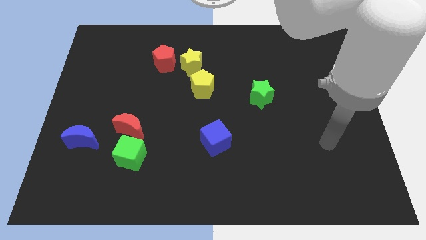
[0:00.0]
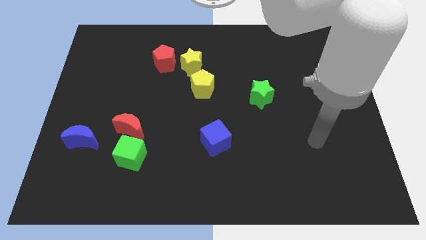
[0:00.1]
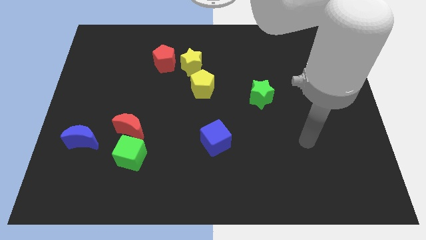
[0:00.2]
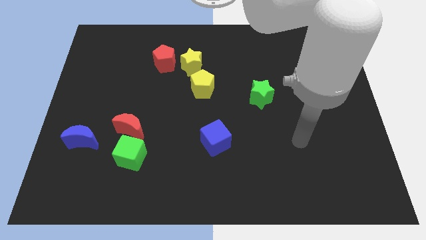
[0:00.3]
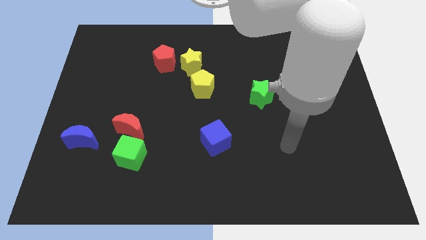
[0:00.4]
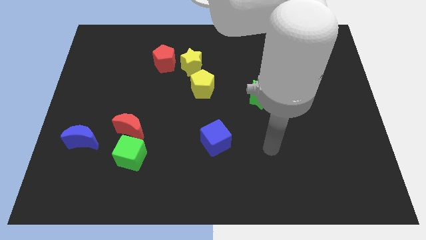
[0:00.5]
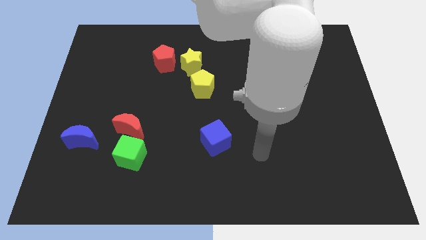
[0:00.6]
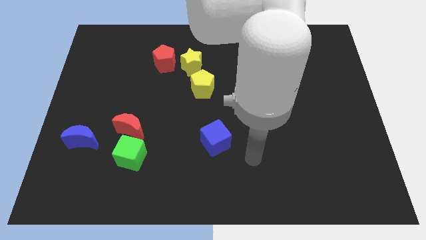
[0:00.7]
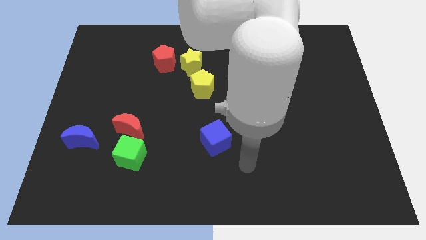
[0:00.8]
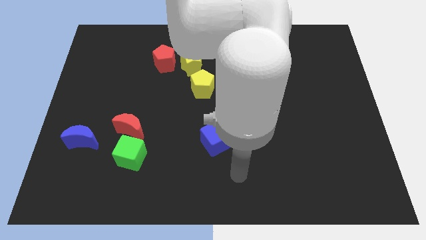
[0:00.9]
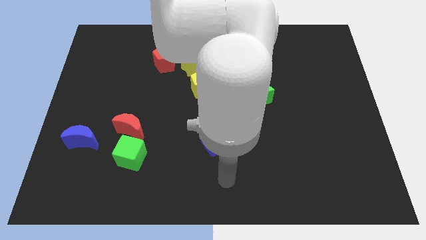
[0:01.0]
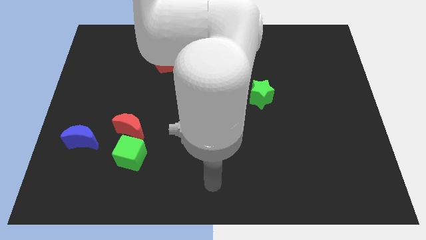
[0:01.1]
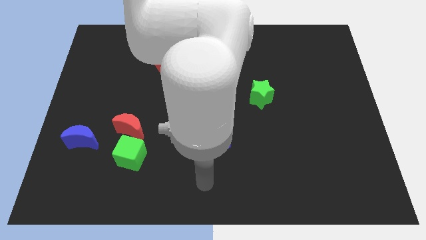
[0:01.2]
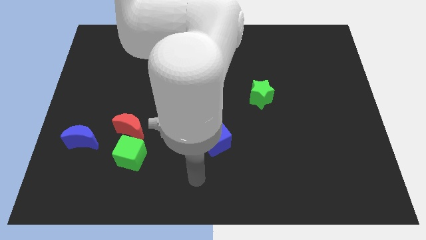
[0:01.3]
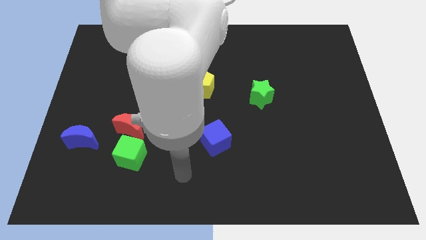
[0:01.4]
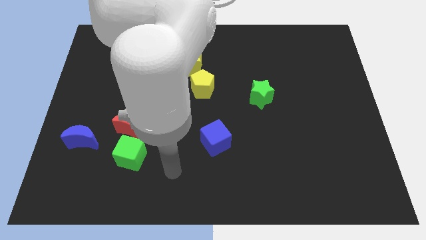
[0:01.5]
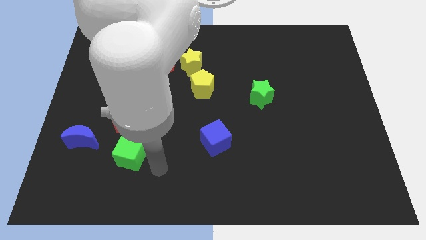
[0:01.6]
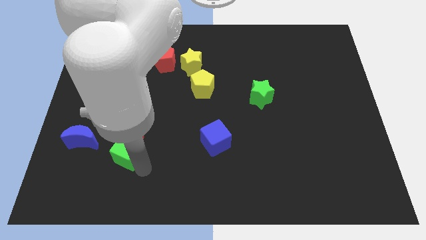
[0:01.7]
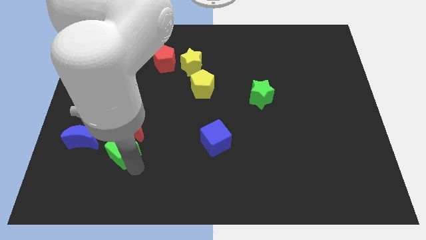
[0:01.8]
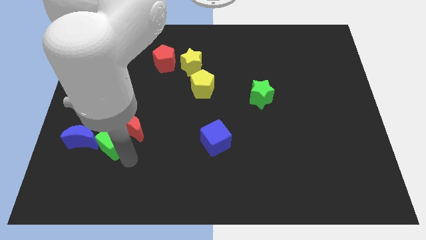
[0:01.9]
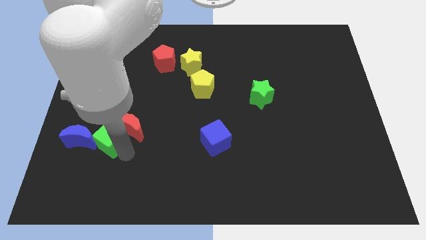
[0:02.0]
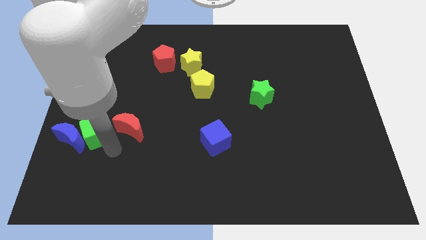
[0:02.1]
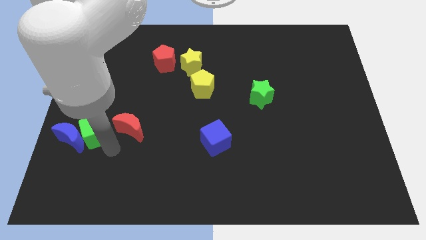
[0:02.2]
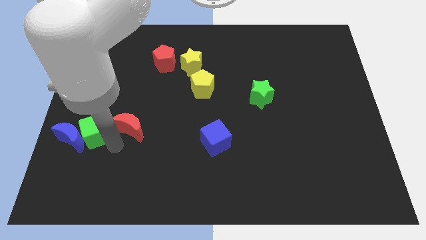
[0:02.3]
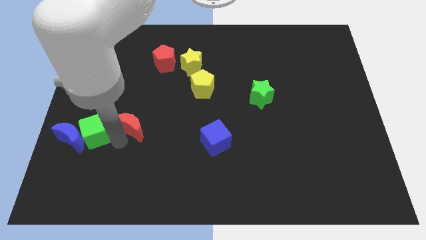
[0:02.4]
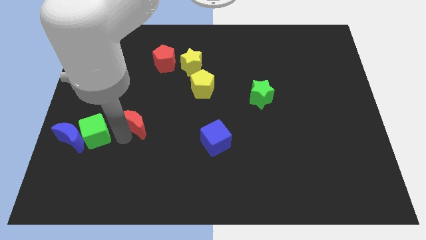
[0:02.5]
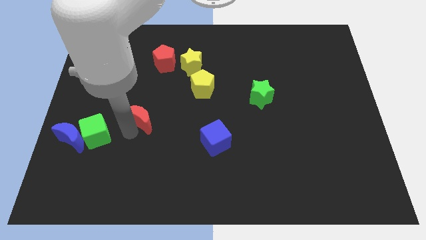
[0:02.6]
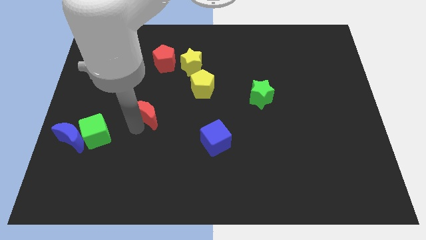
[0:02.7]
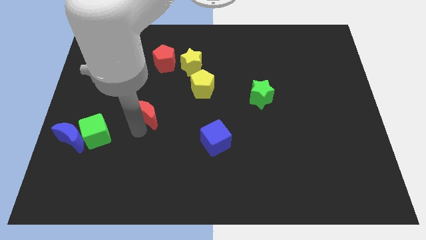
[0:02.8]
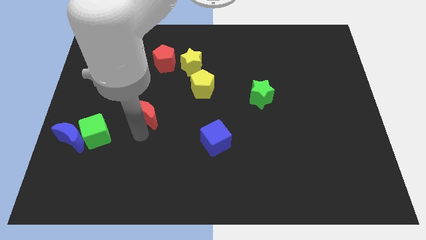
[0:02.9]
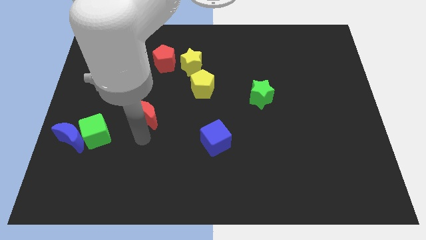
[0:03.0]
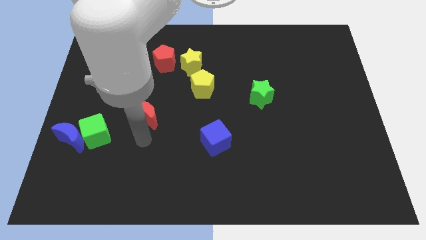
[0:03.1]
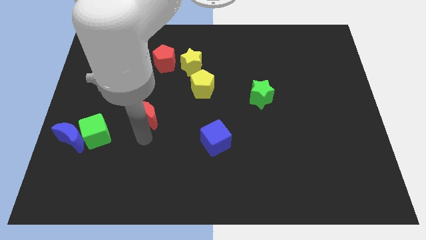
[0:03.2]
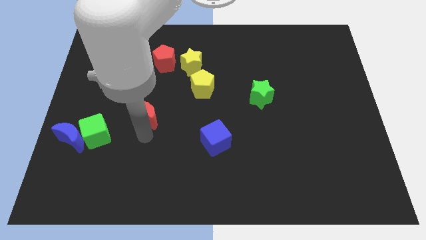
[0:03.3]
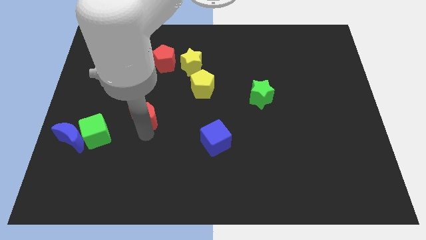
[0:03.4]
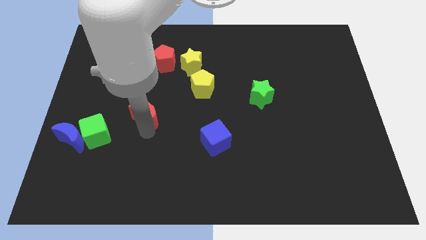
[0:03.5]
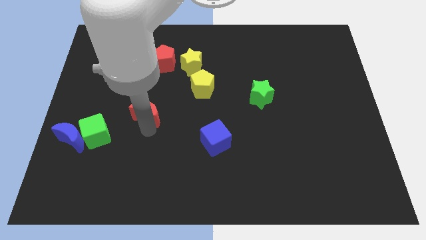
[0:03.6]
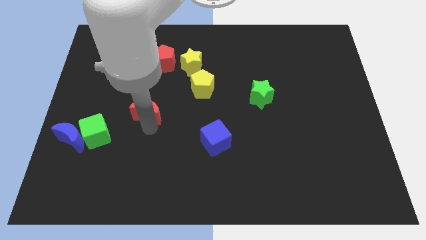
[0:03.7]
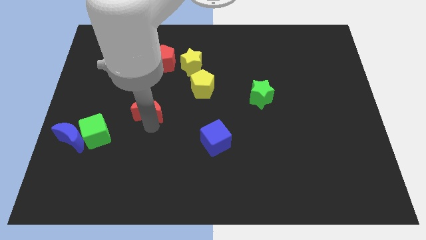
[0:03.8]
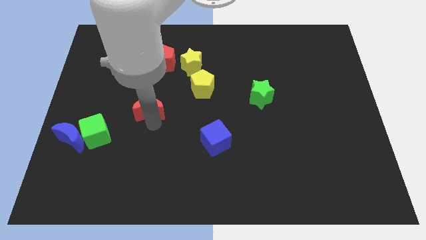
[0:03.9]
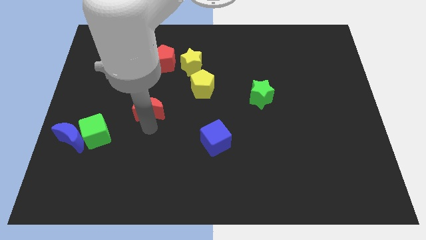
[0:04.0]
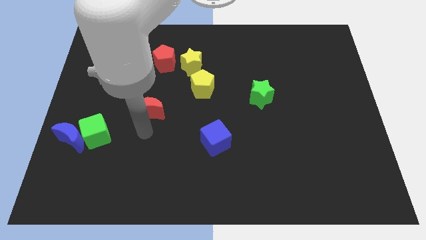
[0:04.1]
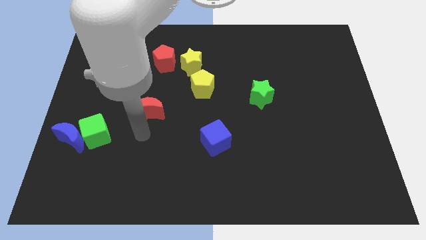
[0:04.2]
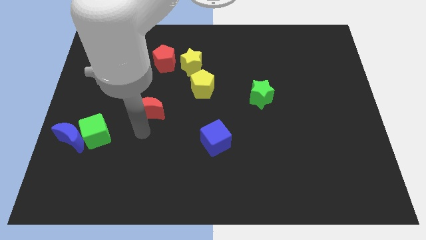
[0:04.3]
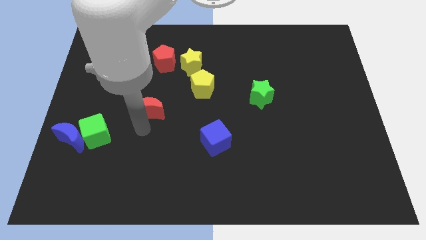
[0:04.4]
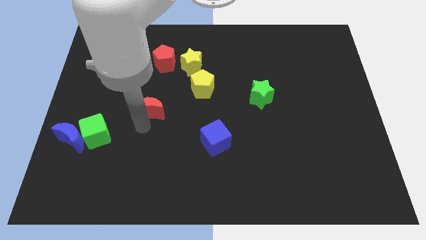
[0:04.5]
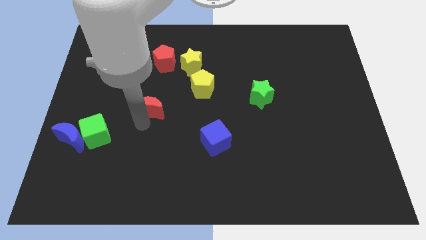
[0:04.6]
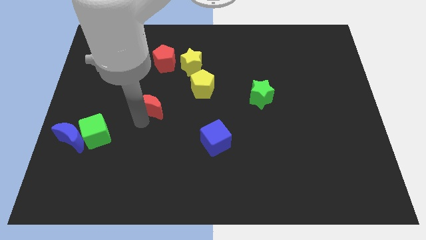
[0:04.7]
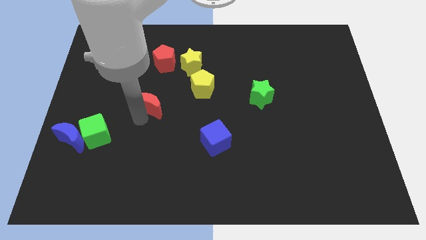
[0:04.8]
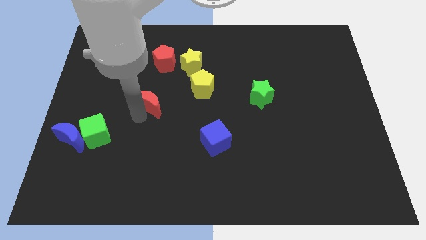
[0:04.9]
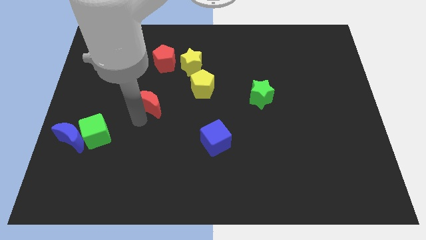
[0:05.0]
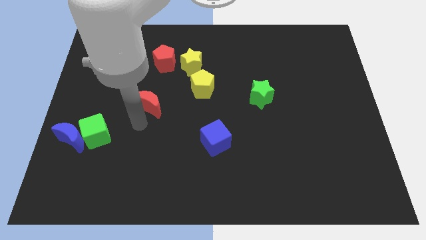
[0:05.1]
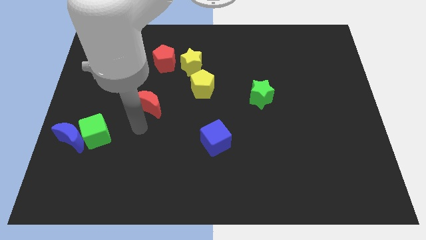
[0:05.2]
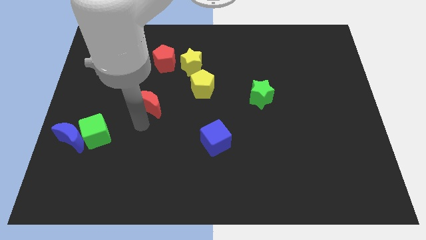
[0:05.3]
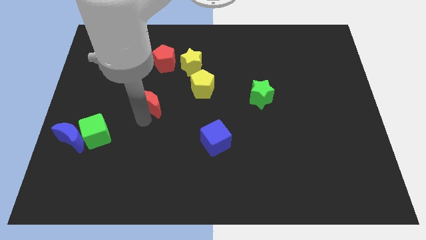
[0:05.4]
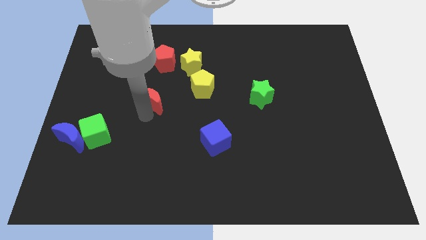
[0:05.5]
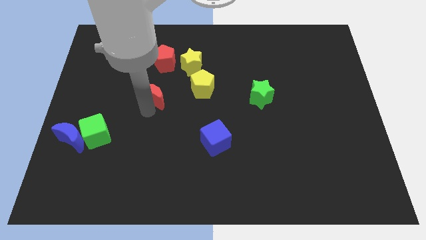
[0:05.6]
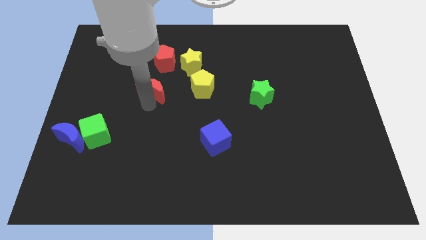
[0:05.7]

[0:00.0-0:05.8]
push the red moon to the bottom left of the yellow star

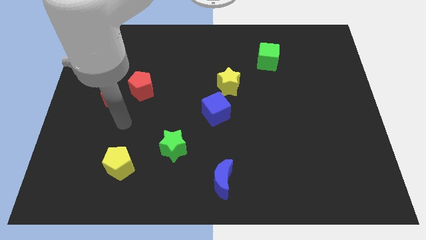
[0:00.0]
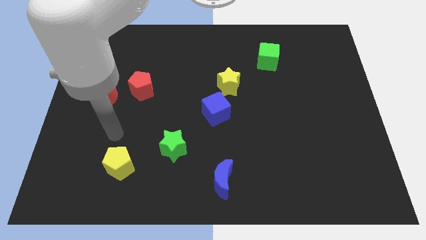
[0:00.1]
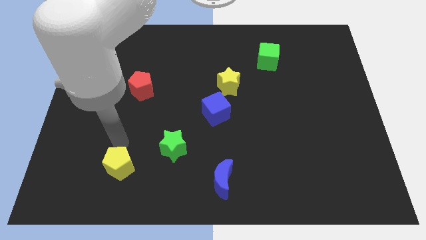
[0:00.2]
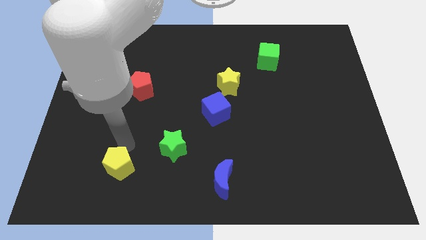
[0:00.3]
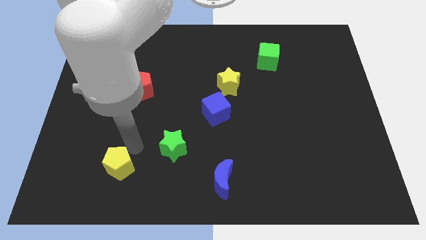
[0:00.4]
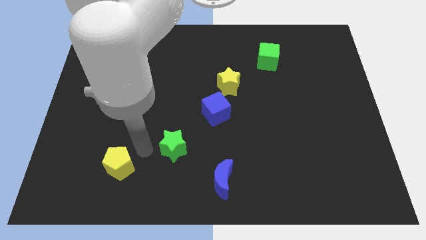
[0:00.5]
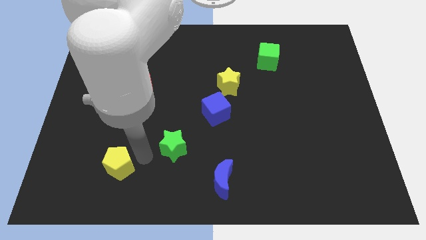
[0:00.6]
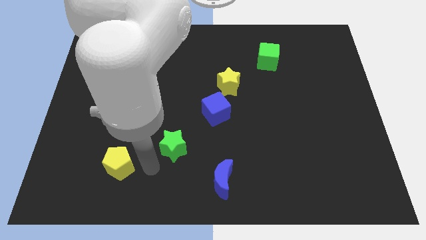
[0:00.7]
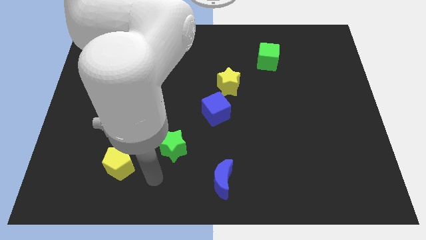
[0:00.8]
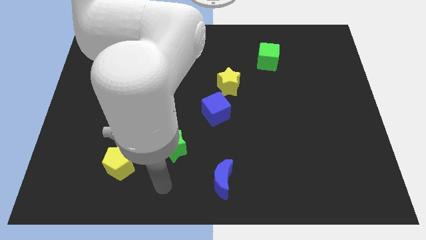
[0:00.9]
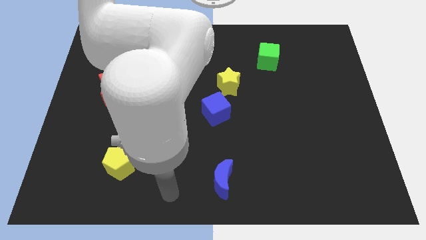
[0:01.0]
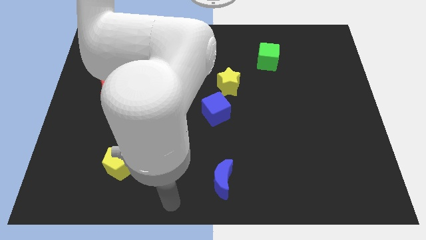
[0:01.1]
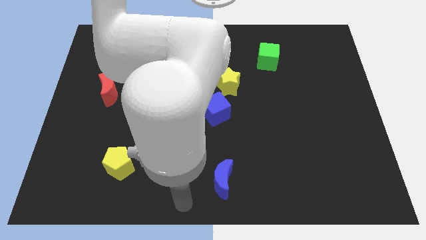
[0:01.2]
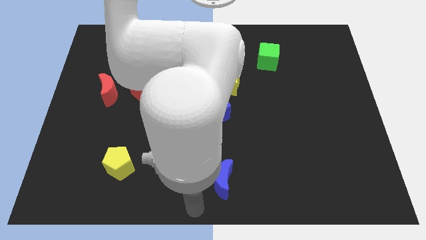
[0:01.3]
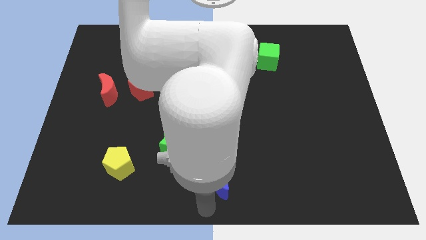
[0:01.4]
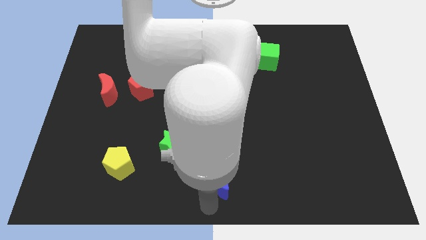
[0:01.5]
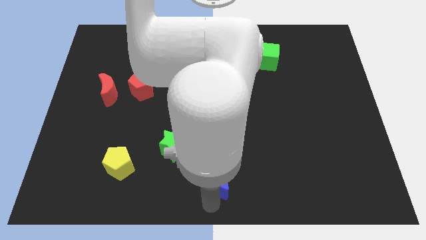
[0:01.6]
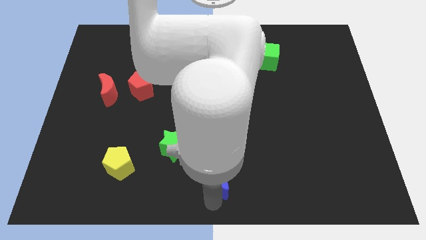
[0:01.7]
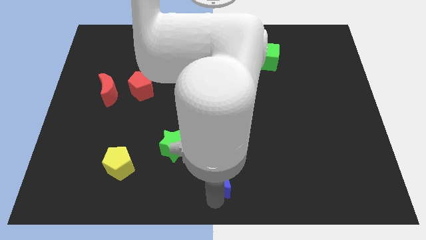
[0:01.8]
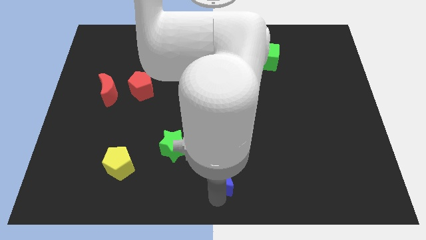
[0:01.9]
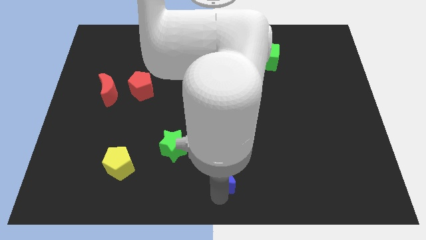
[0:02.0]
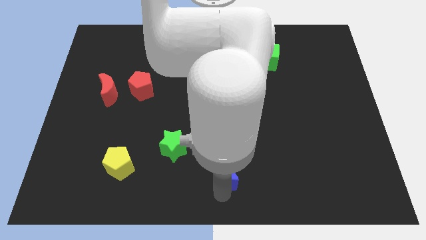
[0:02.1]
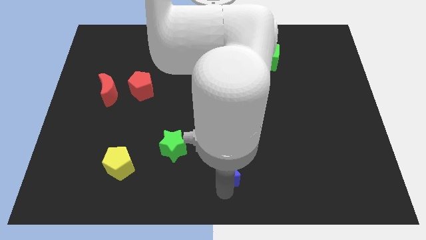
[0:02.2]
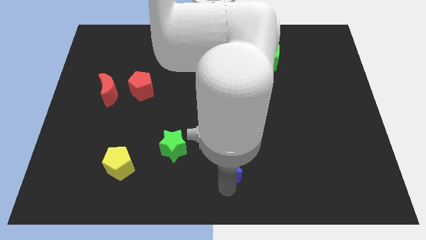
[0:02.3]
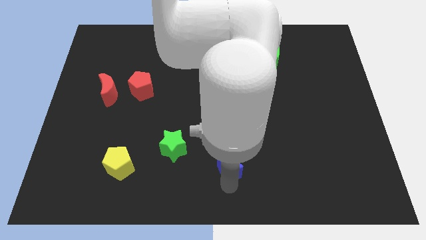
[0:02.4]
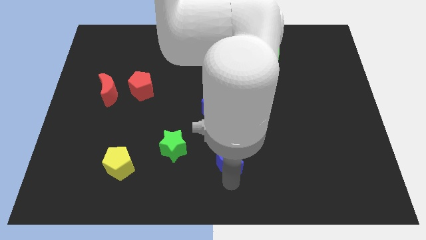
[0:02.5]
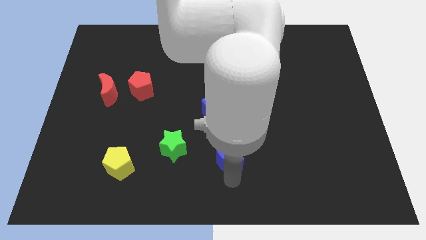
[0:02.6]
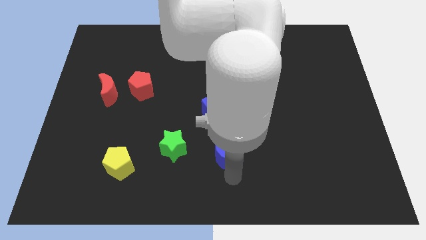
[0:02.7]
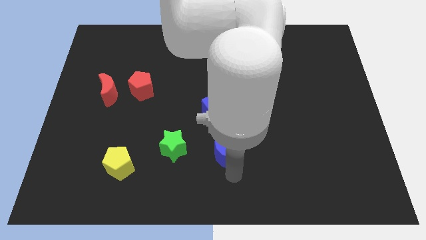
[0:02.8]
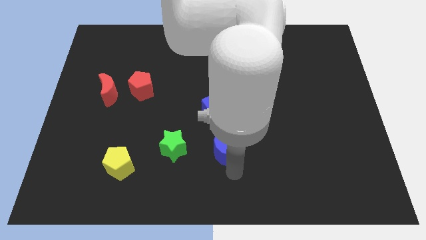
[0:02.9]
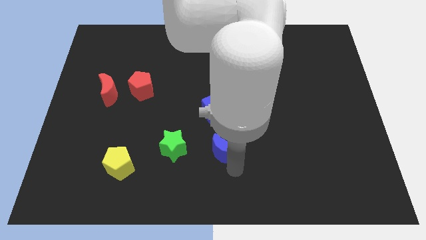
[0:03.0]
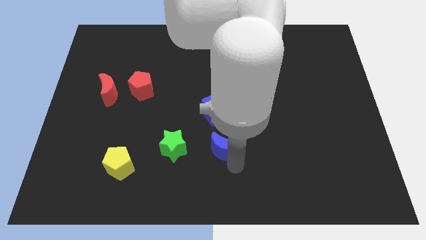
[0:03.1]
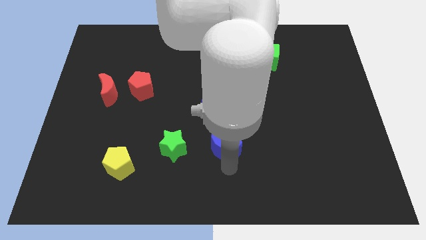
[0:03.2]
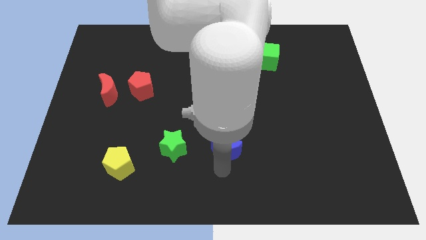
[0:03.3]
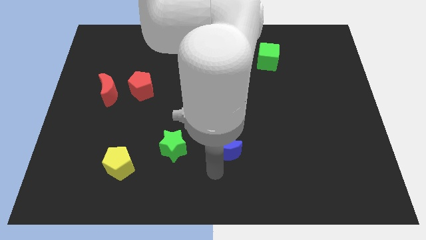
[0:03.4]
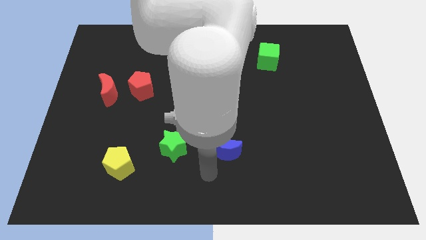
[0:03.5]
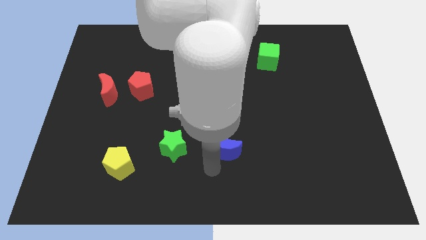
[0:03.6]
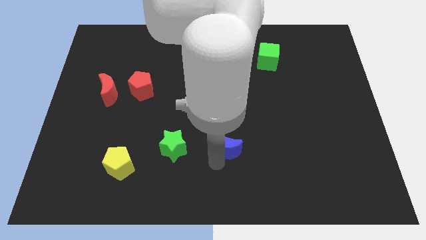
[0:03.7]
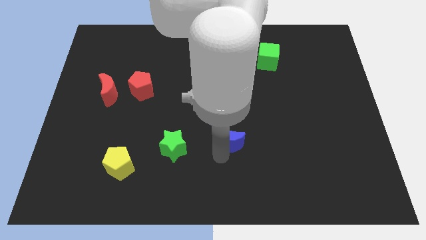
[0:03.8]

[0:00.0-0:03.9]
push the blue moon to the bottom right side of the blue cube
